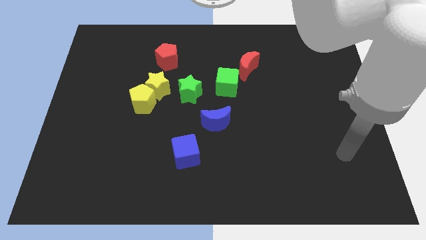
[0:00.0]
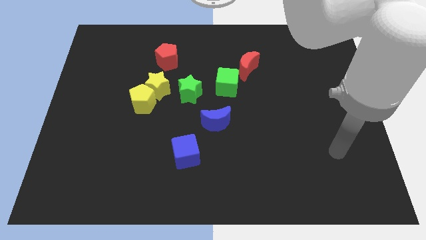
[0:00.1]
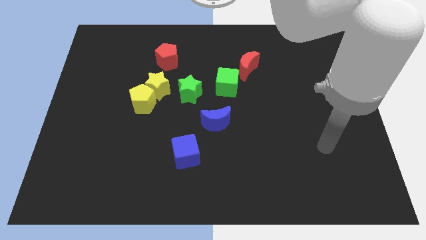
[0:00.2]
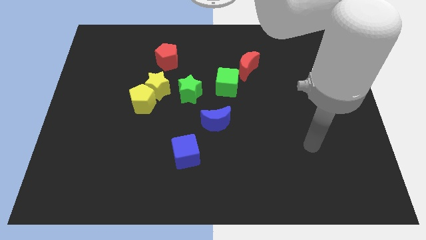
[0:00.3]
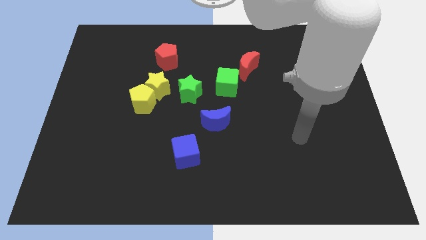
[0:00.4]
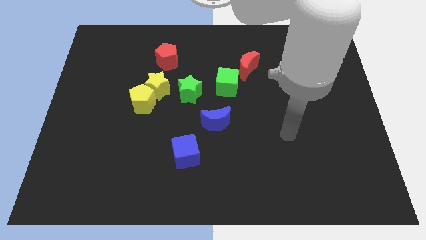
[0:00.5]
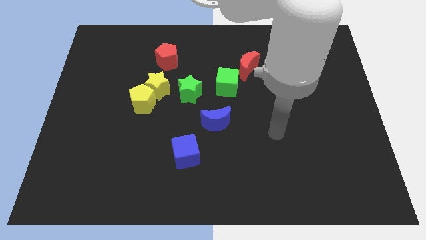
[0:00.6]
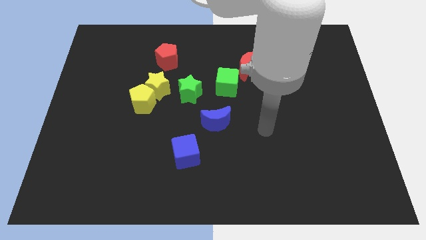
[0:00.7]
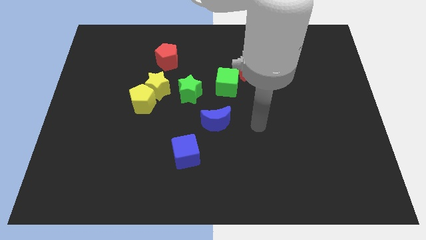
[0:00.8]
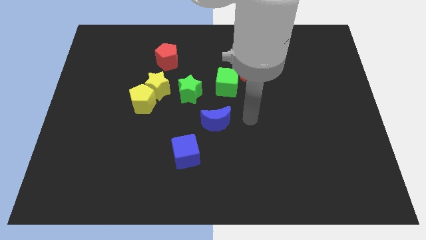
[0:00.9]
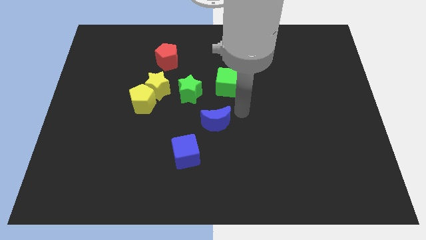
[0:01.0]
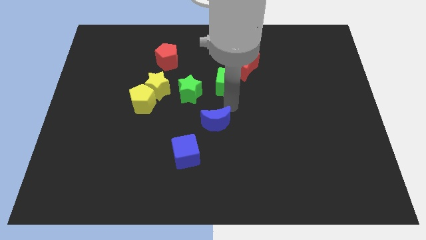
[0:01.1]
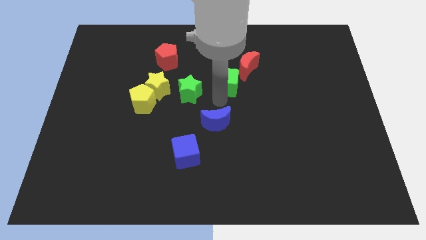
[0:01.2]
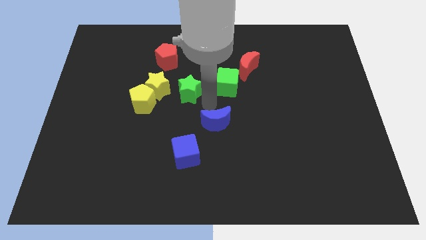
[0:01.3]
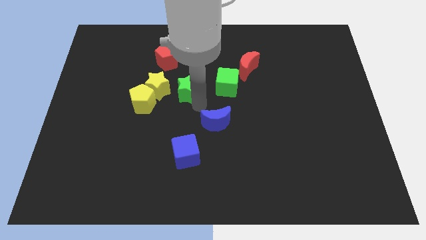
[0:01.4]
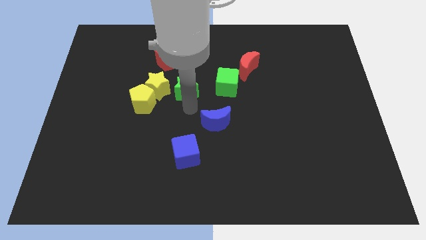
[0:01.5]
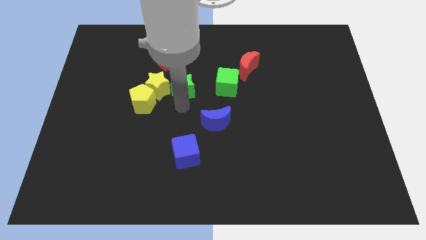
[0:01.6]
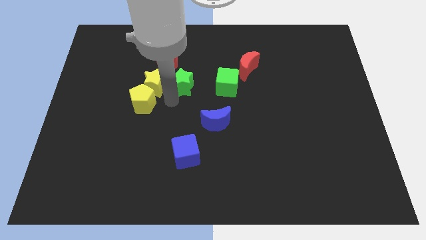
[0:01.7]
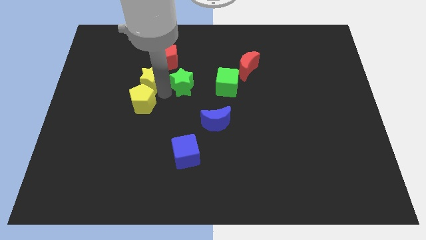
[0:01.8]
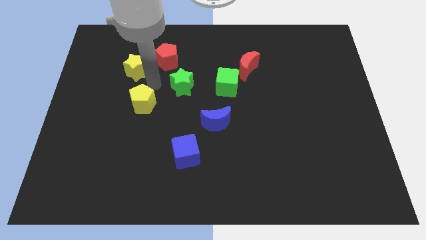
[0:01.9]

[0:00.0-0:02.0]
separate the yellow pentagon from the yellow star

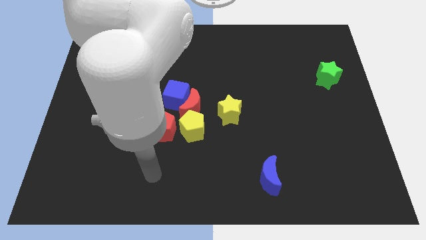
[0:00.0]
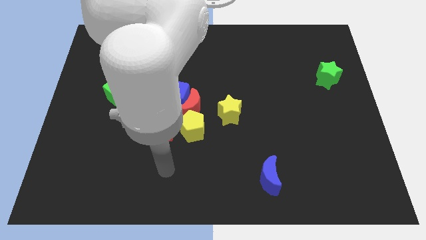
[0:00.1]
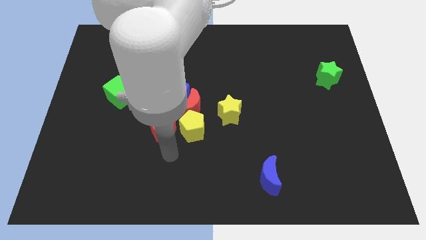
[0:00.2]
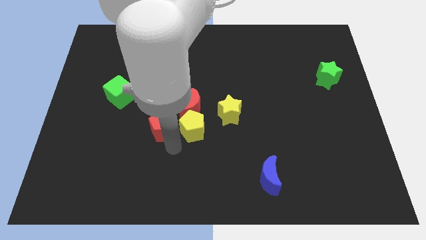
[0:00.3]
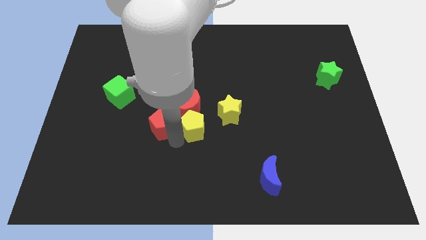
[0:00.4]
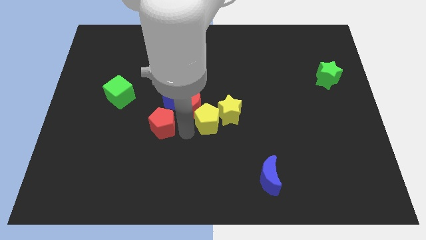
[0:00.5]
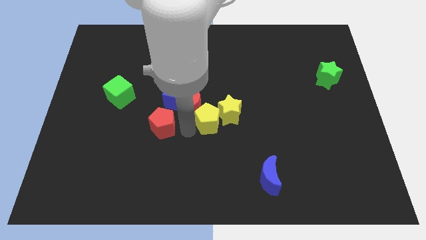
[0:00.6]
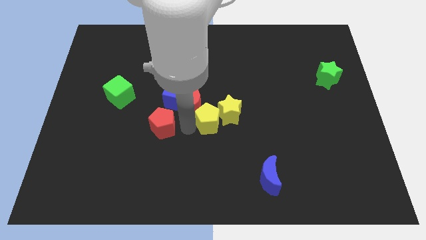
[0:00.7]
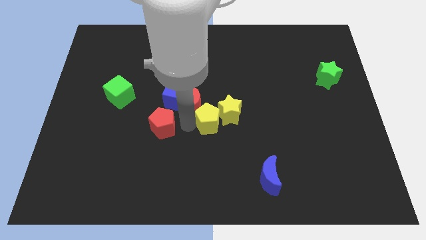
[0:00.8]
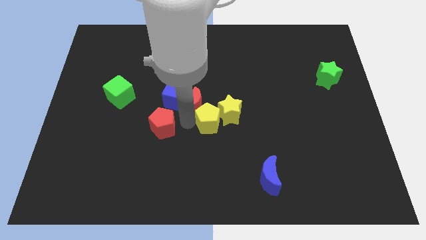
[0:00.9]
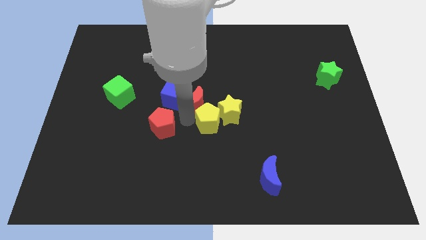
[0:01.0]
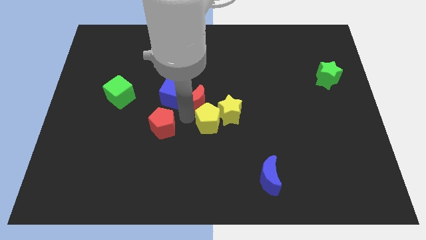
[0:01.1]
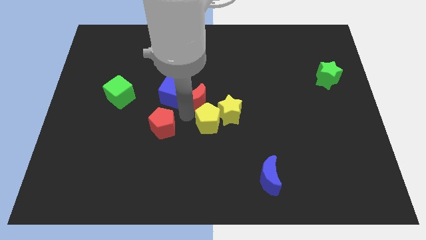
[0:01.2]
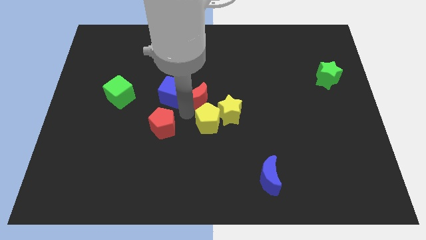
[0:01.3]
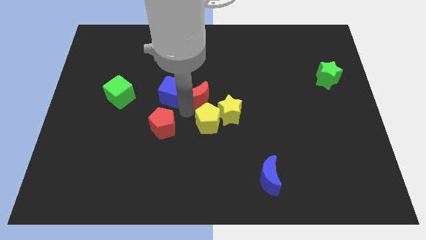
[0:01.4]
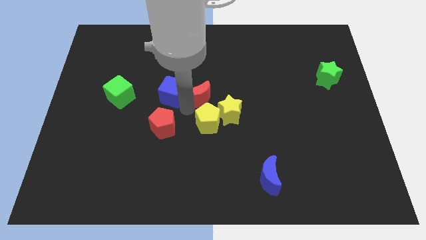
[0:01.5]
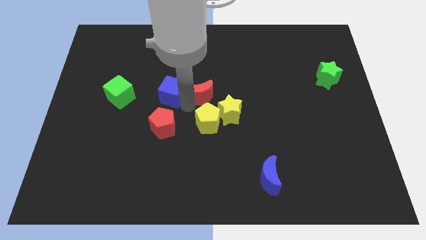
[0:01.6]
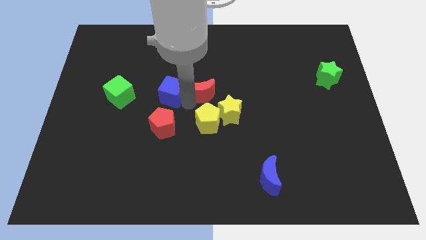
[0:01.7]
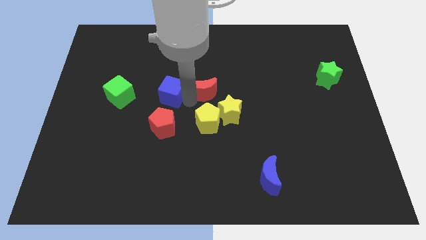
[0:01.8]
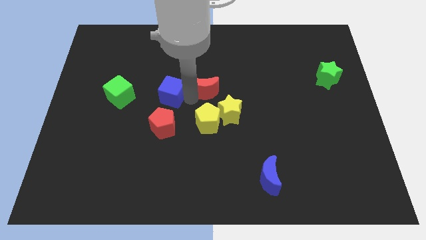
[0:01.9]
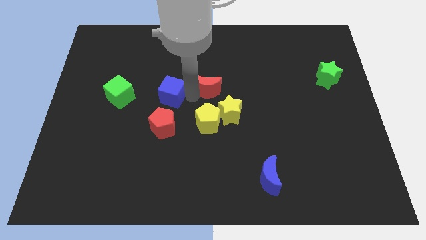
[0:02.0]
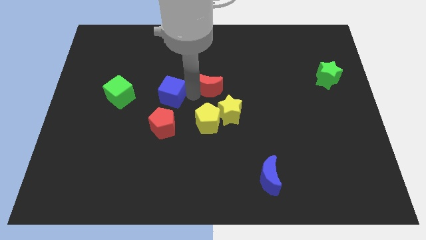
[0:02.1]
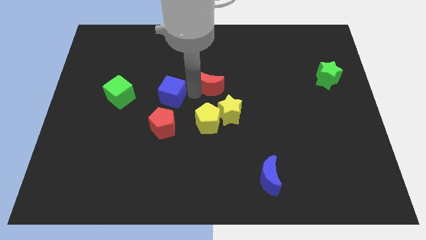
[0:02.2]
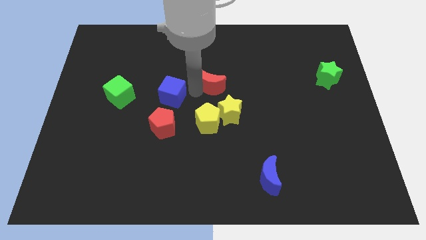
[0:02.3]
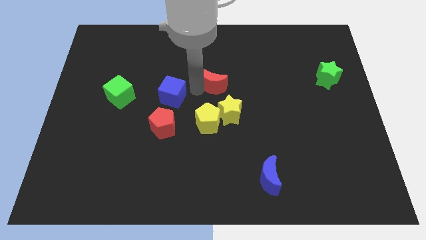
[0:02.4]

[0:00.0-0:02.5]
move the red moon away from the group

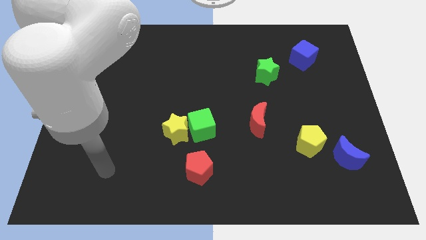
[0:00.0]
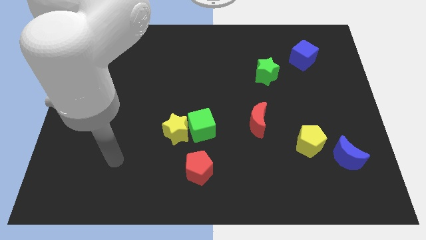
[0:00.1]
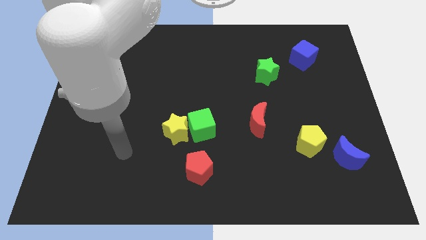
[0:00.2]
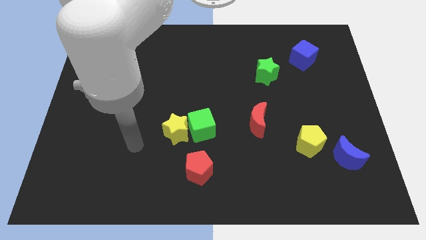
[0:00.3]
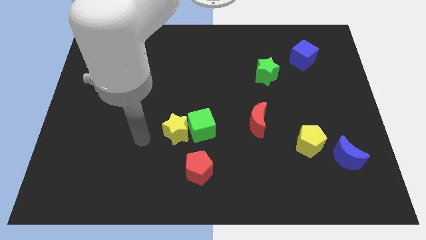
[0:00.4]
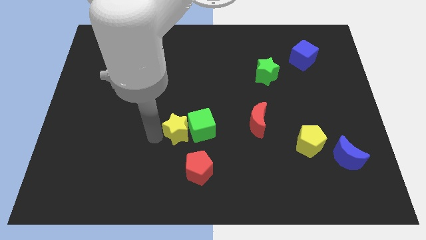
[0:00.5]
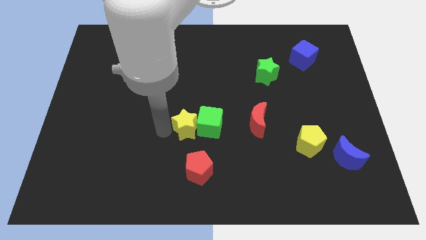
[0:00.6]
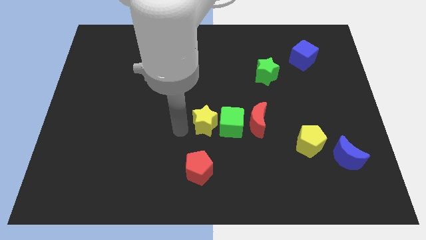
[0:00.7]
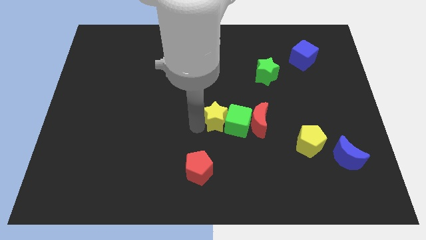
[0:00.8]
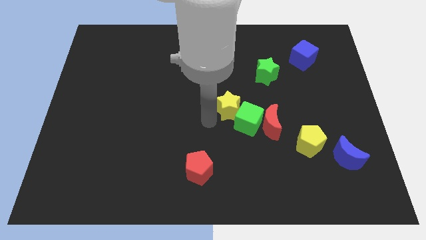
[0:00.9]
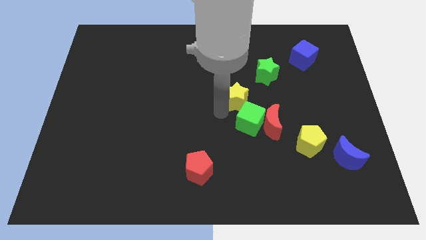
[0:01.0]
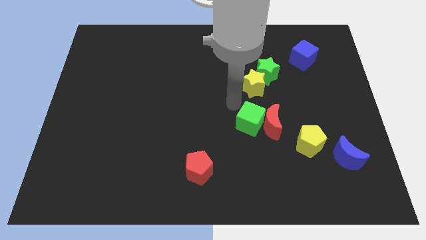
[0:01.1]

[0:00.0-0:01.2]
pull the green cube apart from the yellow star

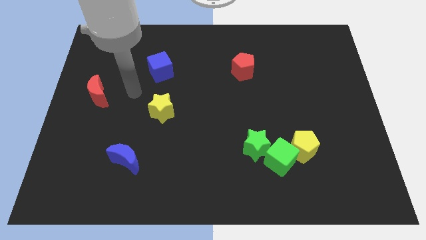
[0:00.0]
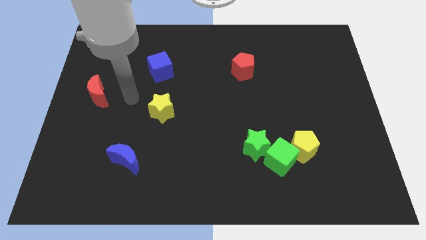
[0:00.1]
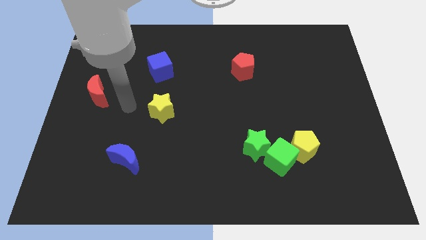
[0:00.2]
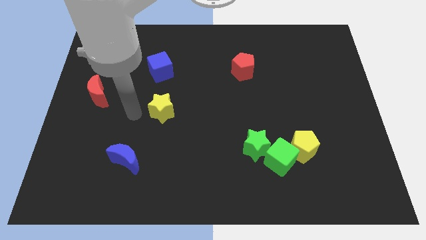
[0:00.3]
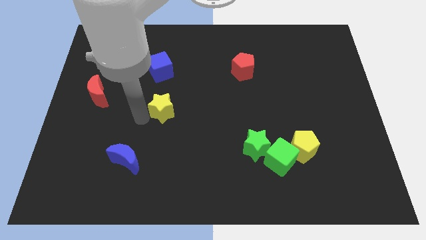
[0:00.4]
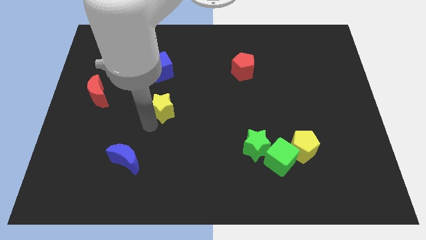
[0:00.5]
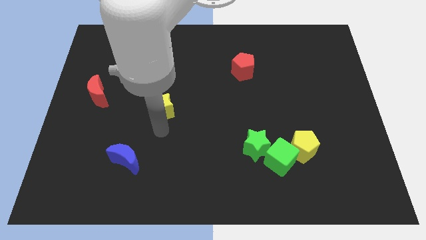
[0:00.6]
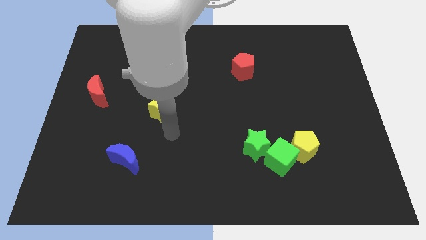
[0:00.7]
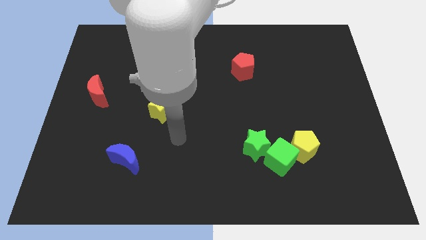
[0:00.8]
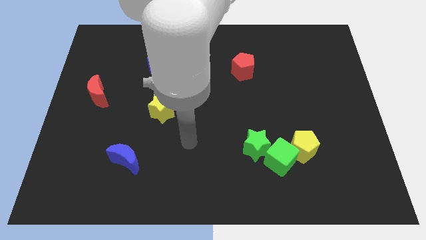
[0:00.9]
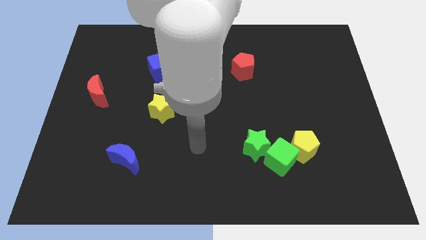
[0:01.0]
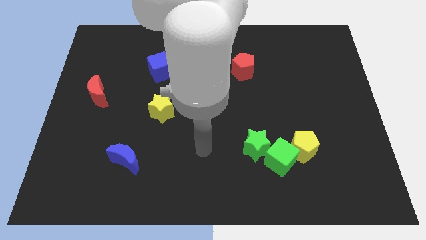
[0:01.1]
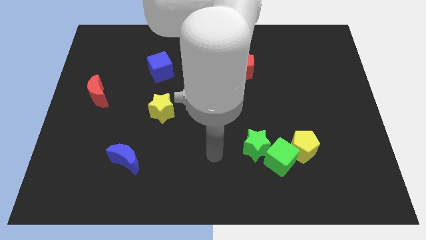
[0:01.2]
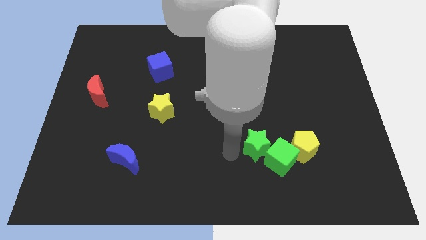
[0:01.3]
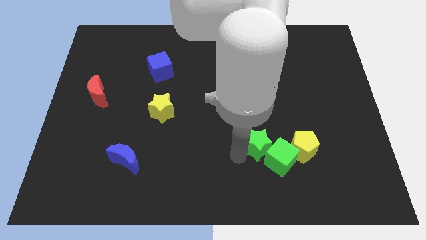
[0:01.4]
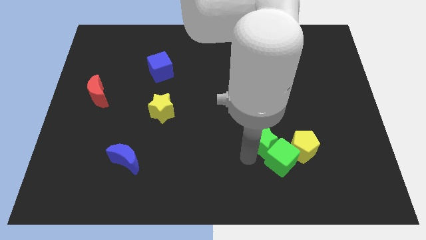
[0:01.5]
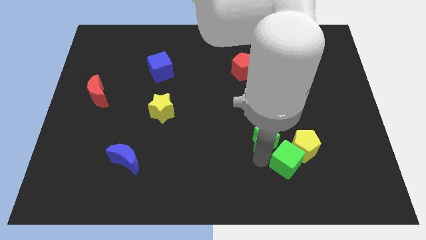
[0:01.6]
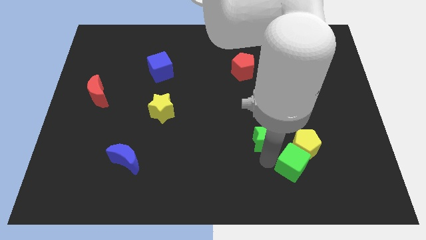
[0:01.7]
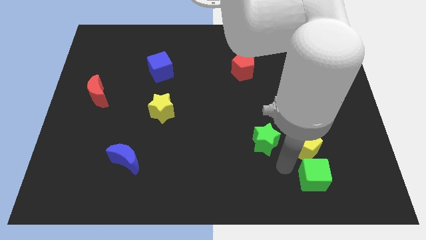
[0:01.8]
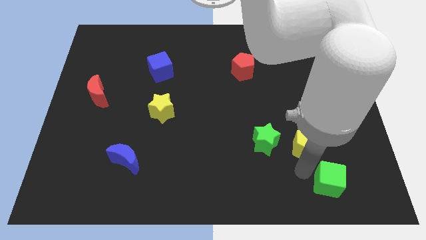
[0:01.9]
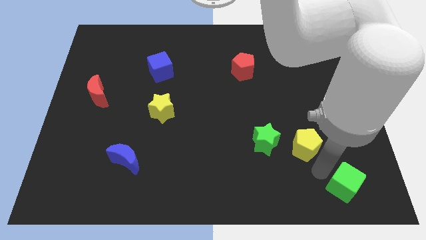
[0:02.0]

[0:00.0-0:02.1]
pull the yellow pentagon apart from the green cube

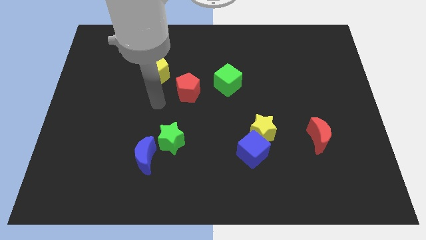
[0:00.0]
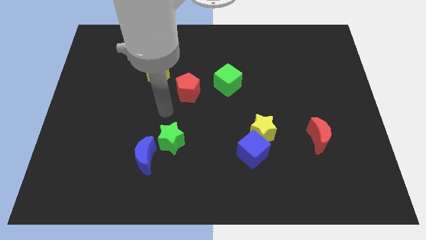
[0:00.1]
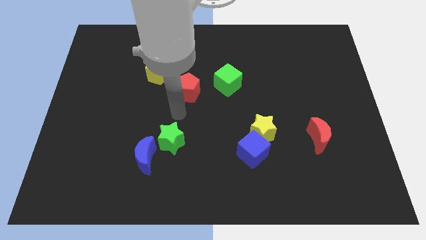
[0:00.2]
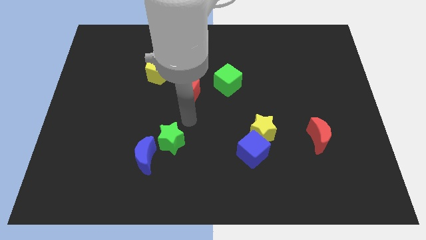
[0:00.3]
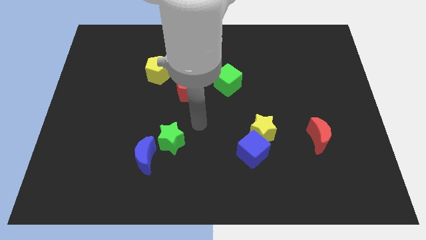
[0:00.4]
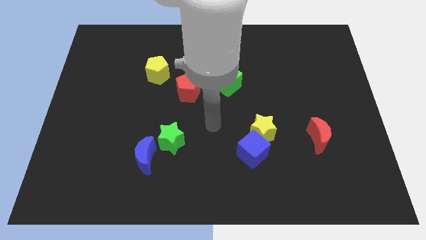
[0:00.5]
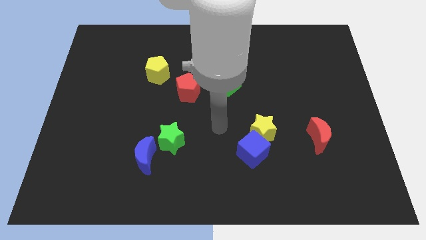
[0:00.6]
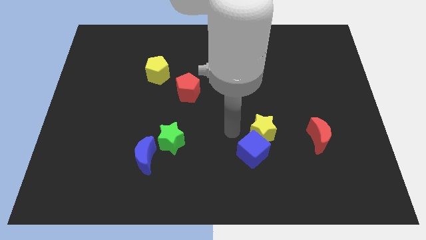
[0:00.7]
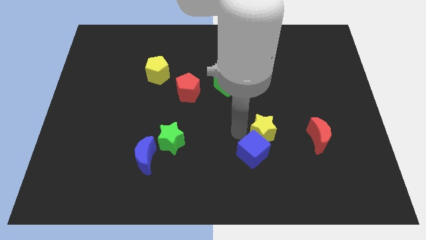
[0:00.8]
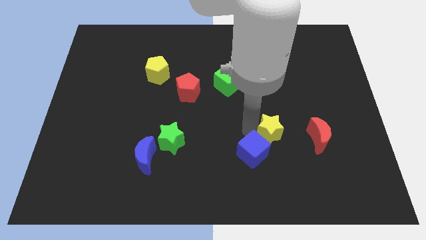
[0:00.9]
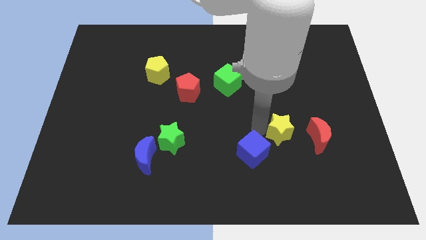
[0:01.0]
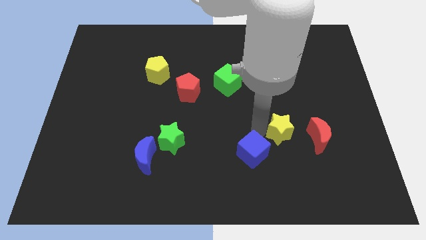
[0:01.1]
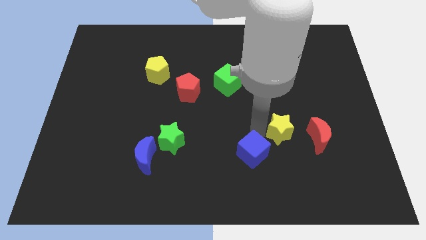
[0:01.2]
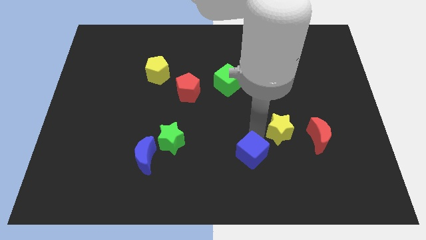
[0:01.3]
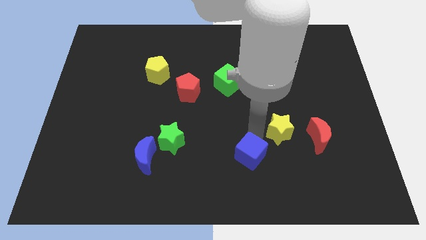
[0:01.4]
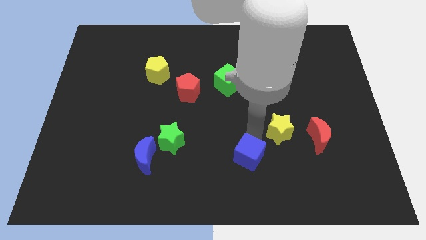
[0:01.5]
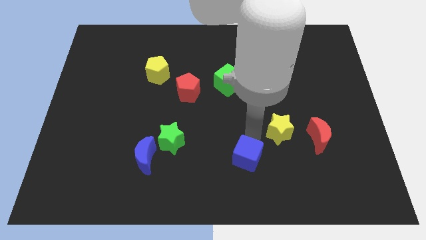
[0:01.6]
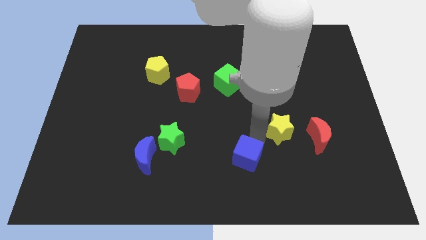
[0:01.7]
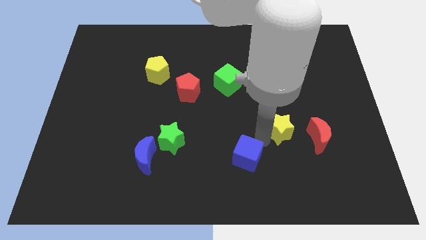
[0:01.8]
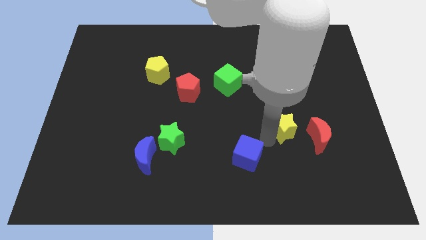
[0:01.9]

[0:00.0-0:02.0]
move the blue cube away from the yellow star
